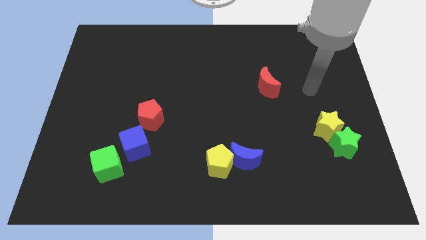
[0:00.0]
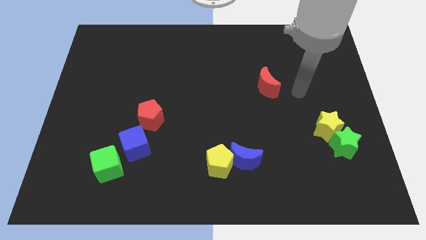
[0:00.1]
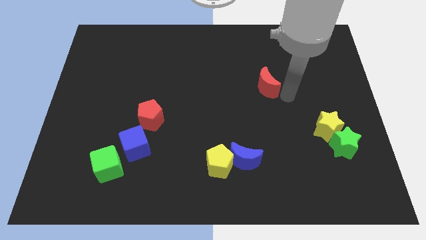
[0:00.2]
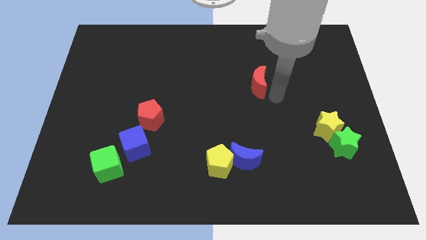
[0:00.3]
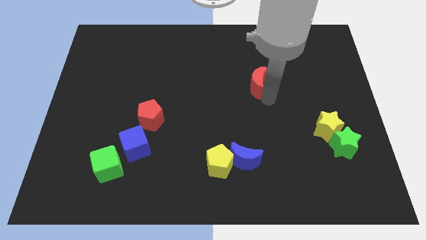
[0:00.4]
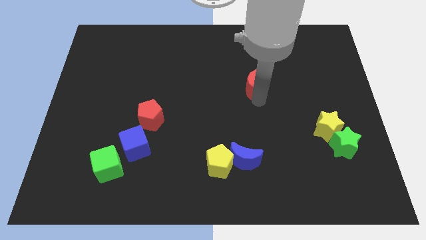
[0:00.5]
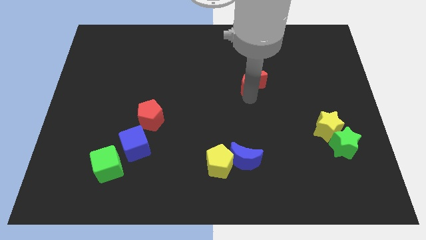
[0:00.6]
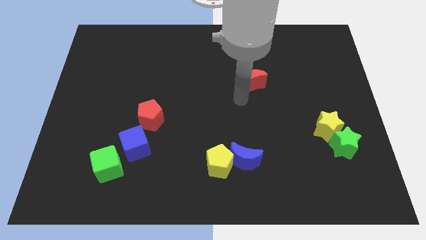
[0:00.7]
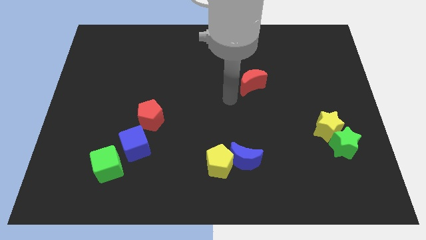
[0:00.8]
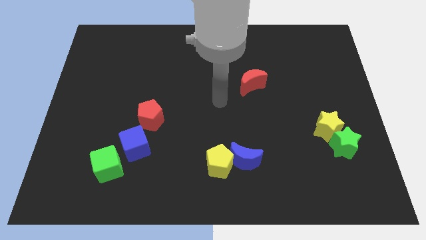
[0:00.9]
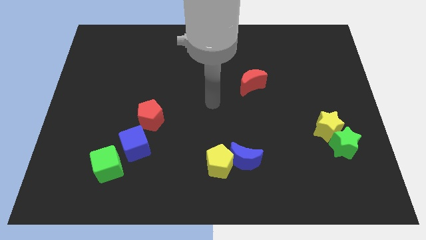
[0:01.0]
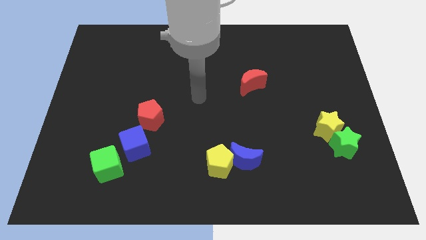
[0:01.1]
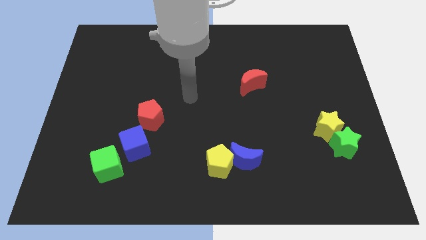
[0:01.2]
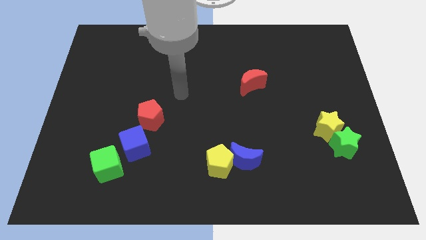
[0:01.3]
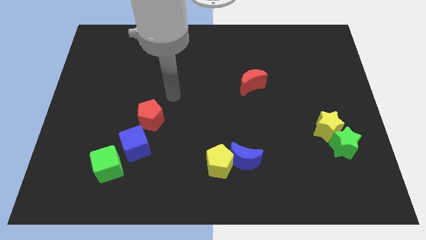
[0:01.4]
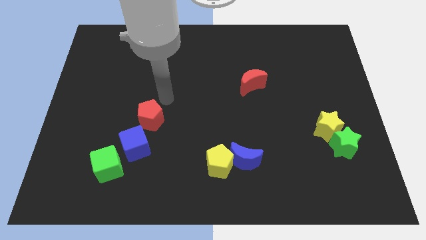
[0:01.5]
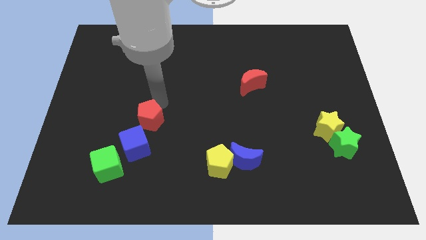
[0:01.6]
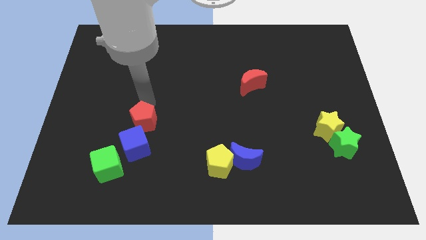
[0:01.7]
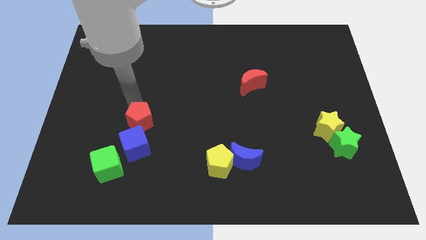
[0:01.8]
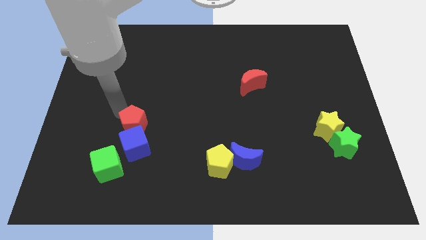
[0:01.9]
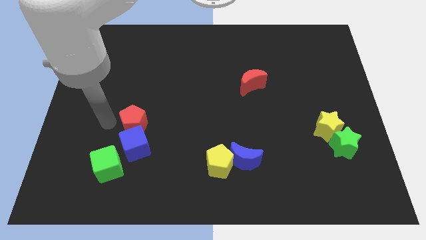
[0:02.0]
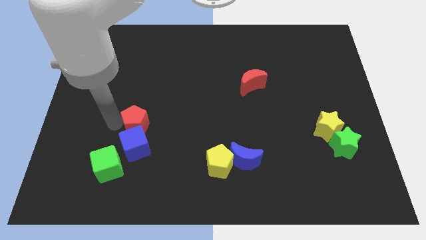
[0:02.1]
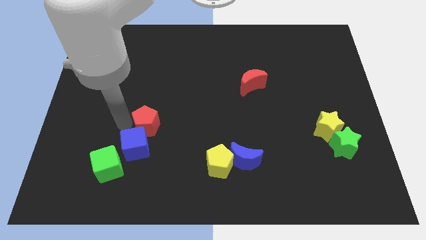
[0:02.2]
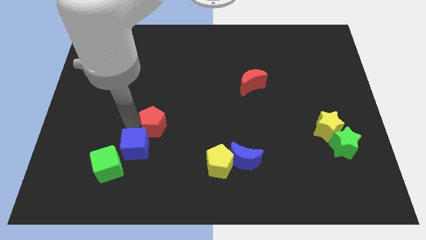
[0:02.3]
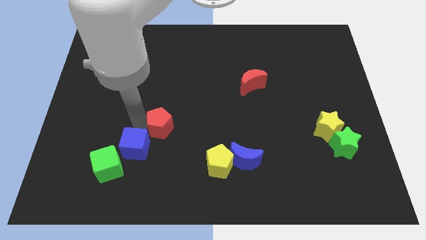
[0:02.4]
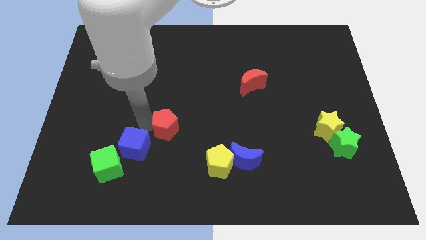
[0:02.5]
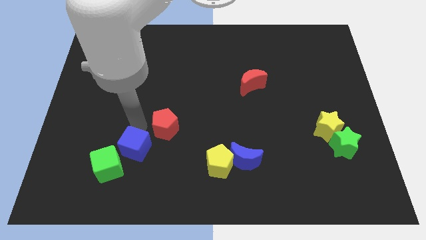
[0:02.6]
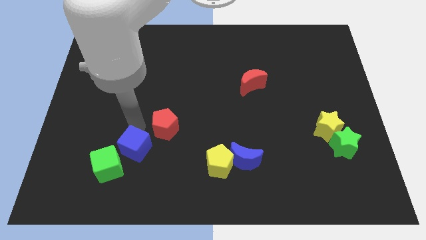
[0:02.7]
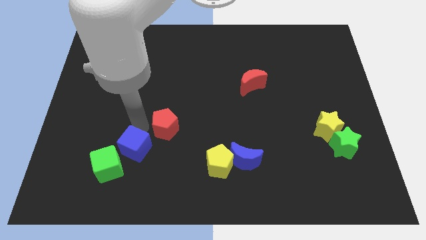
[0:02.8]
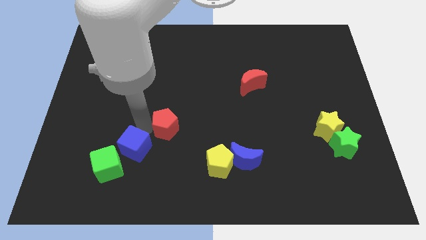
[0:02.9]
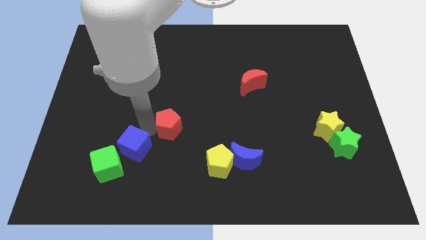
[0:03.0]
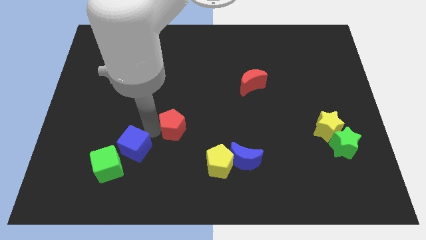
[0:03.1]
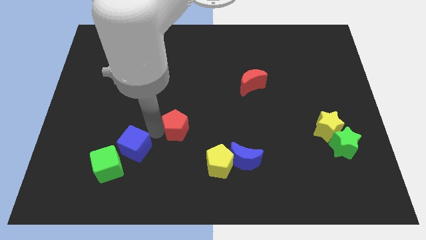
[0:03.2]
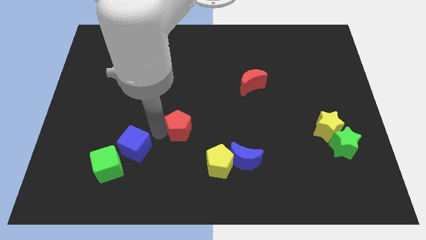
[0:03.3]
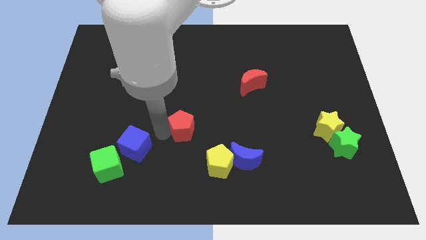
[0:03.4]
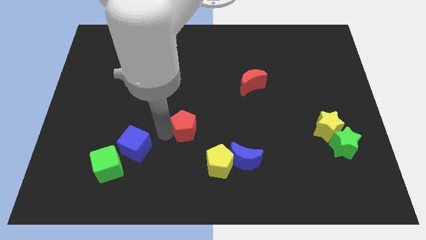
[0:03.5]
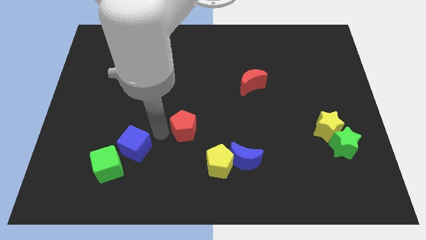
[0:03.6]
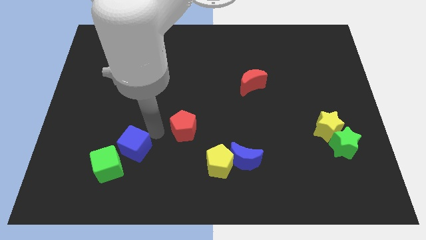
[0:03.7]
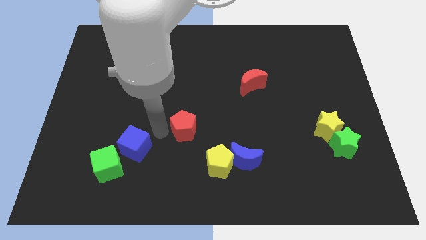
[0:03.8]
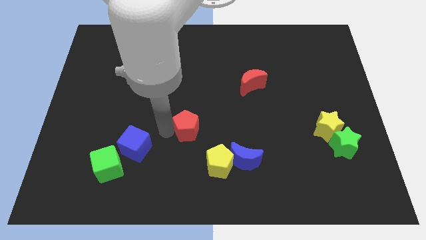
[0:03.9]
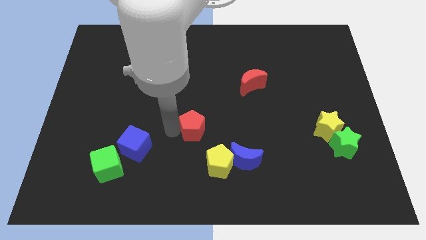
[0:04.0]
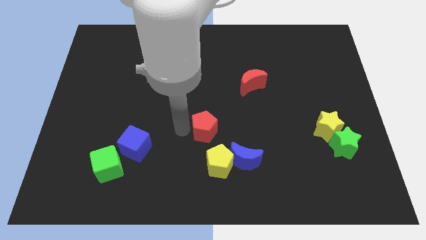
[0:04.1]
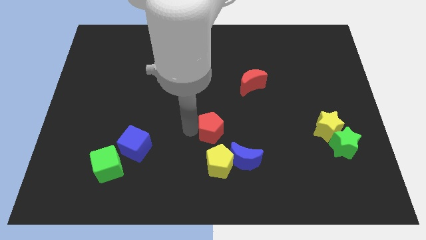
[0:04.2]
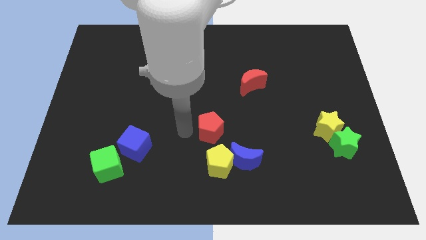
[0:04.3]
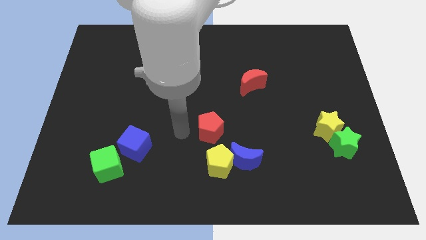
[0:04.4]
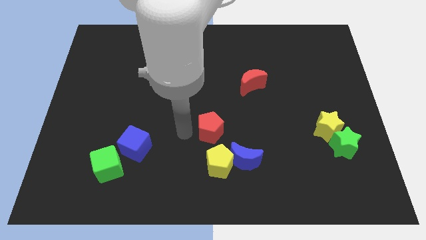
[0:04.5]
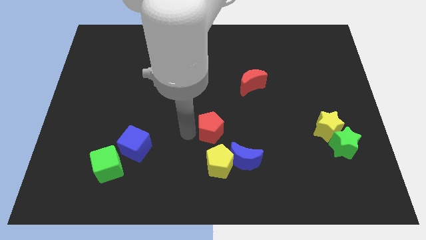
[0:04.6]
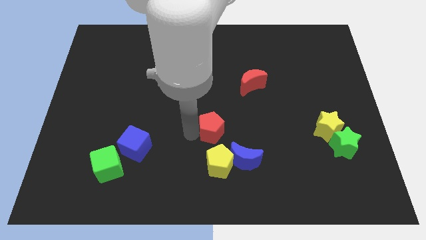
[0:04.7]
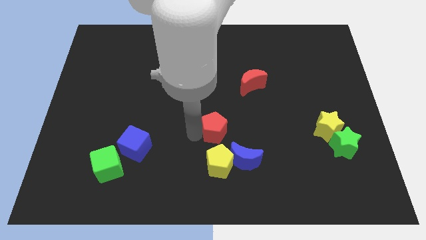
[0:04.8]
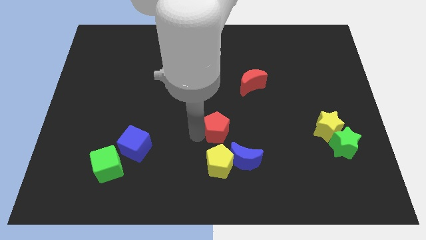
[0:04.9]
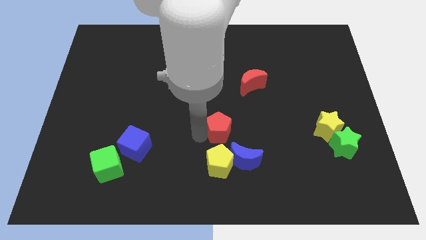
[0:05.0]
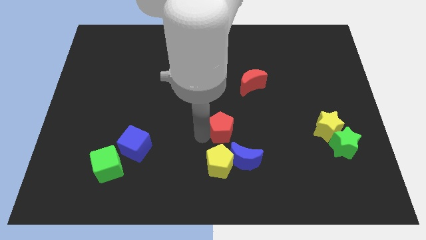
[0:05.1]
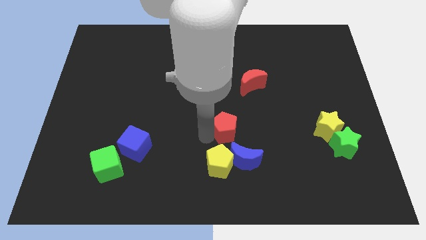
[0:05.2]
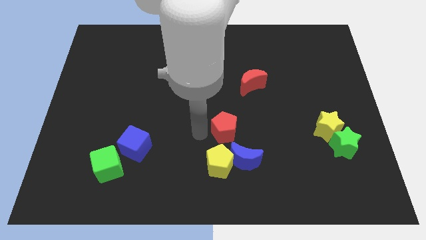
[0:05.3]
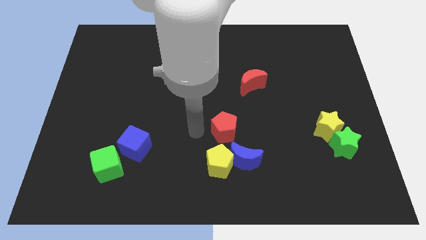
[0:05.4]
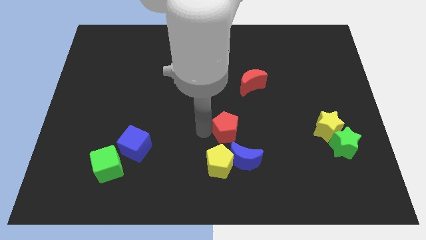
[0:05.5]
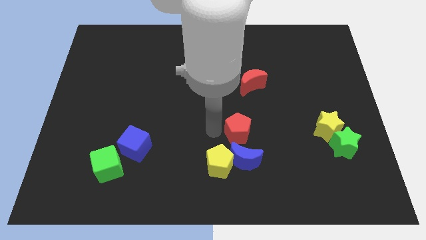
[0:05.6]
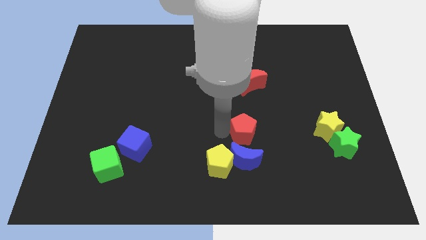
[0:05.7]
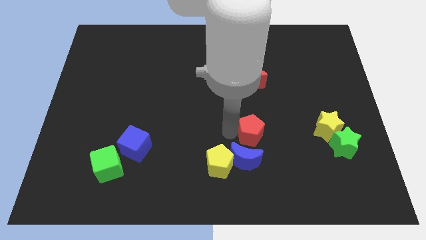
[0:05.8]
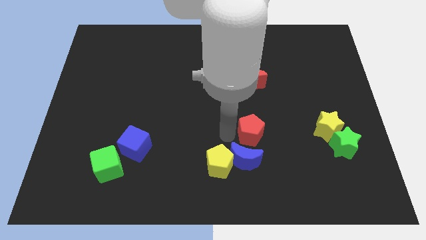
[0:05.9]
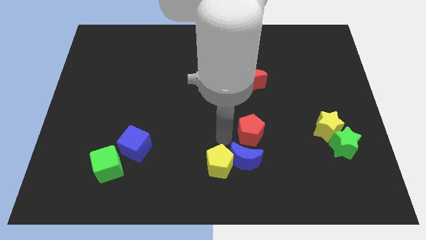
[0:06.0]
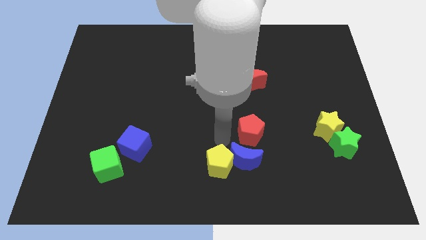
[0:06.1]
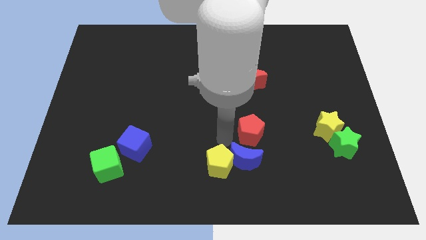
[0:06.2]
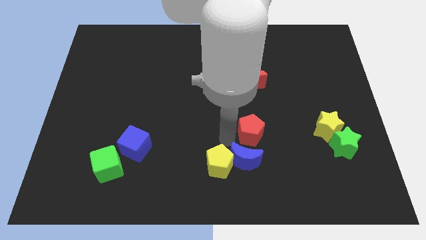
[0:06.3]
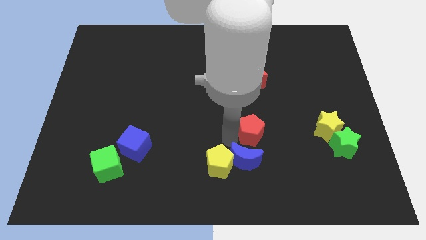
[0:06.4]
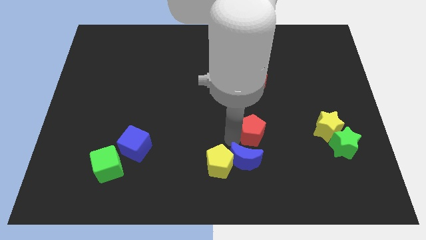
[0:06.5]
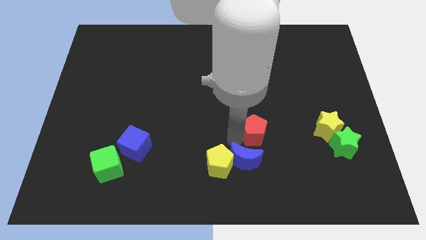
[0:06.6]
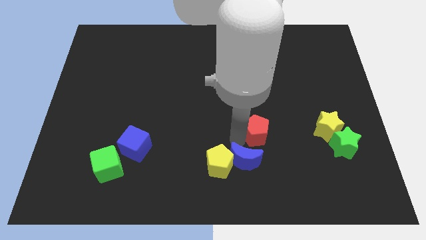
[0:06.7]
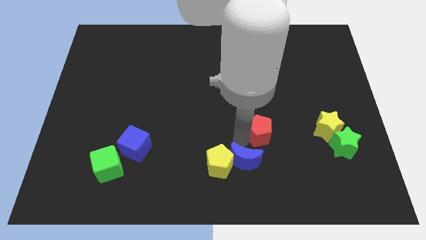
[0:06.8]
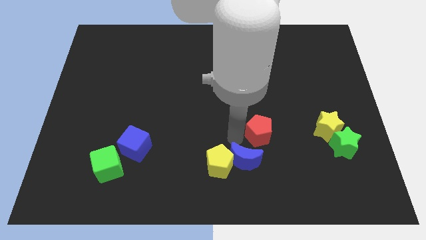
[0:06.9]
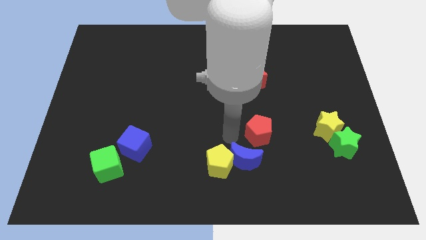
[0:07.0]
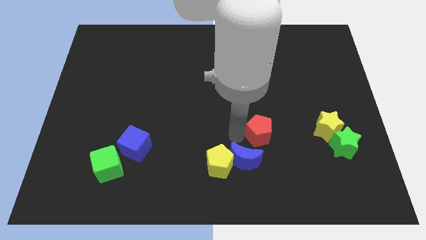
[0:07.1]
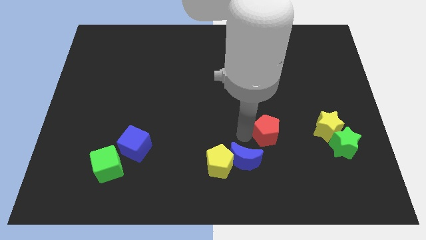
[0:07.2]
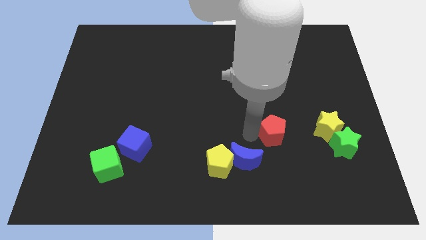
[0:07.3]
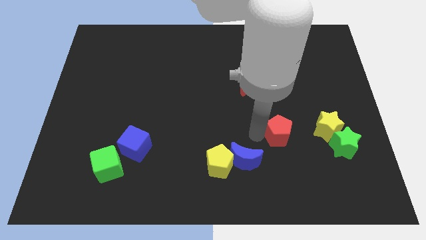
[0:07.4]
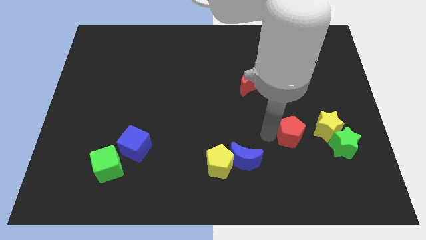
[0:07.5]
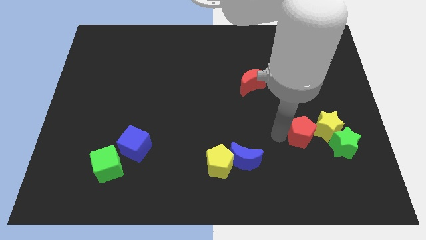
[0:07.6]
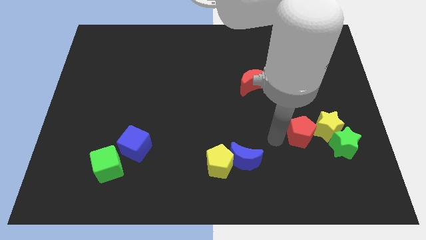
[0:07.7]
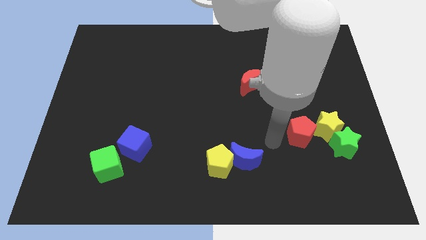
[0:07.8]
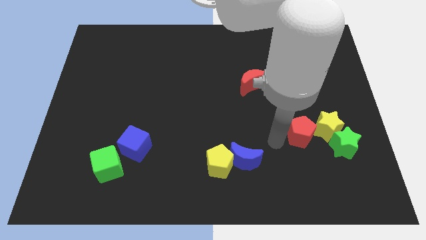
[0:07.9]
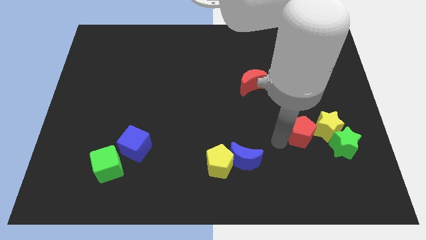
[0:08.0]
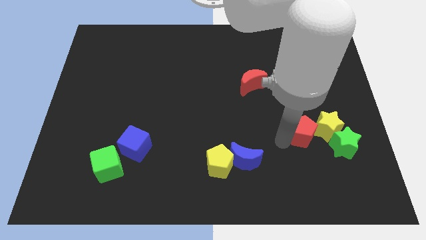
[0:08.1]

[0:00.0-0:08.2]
slide the red pentagon to the yellow star
